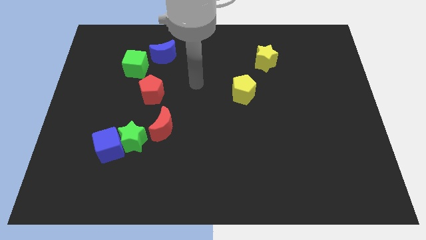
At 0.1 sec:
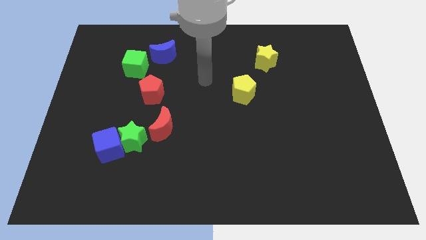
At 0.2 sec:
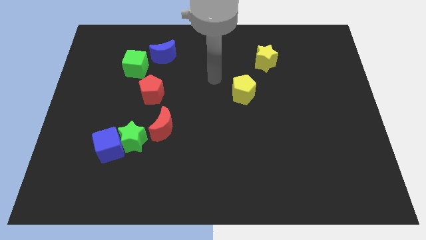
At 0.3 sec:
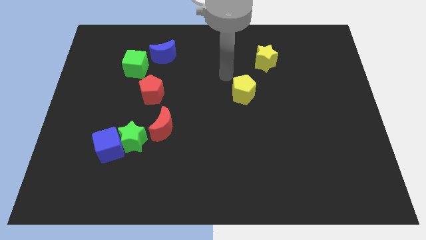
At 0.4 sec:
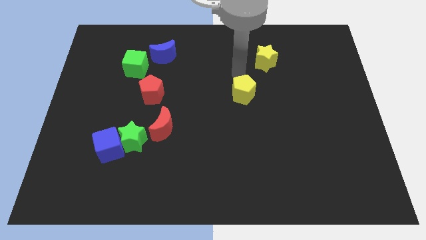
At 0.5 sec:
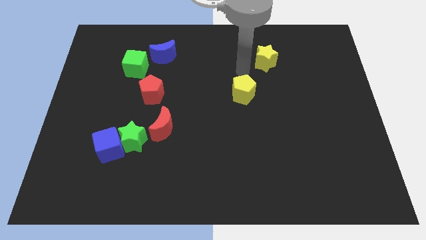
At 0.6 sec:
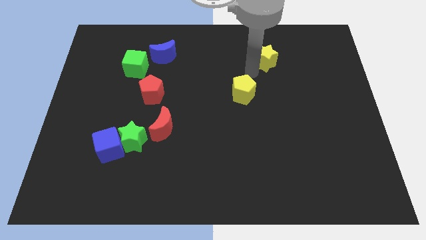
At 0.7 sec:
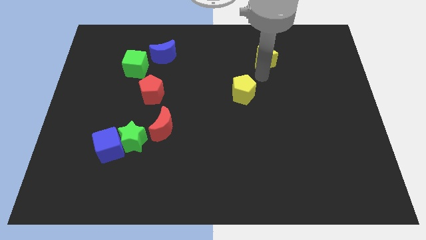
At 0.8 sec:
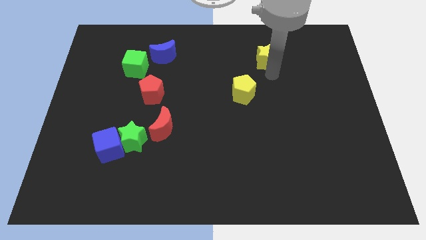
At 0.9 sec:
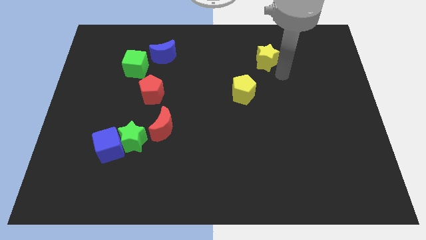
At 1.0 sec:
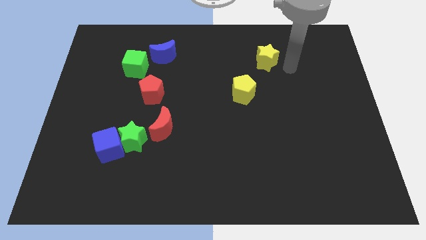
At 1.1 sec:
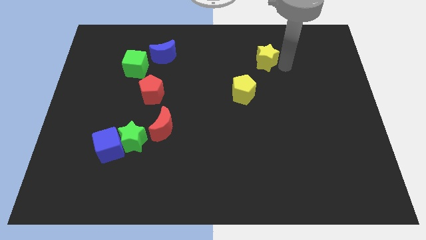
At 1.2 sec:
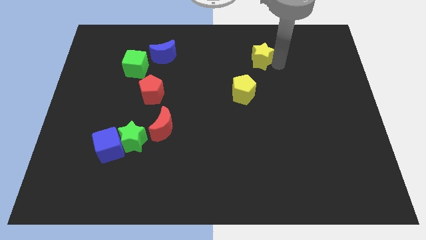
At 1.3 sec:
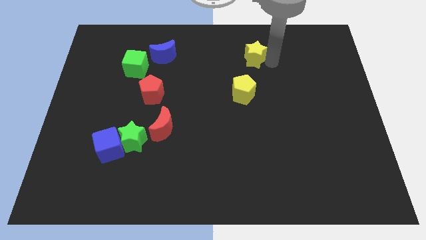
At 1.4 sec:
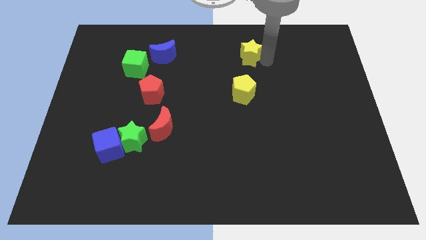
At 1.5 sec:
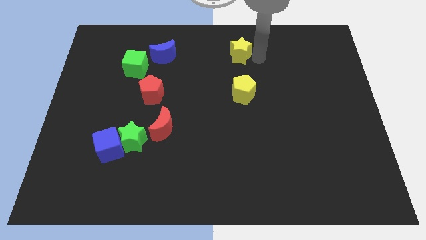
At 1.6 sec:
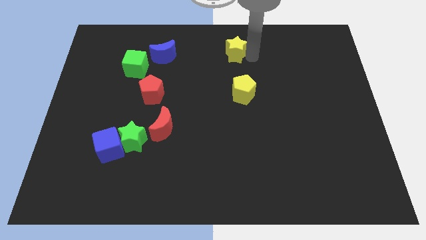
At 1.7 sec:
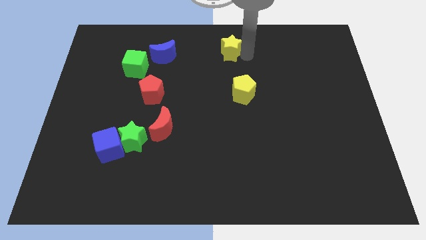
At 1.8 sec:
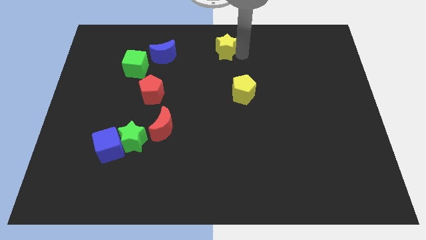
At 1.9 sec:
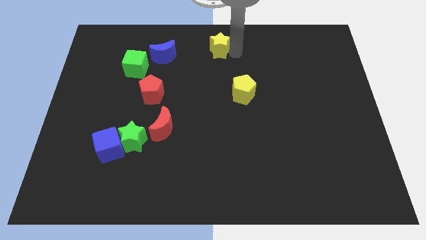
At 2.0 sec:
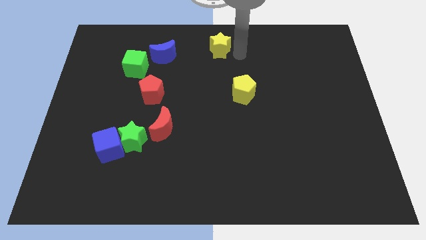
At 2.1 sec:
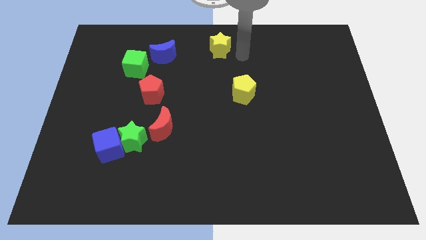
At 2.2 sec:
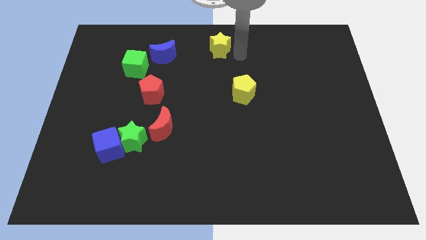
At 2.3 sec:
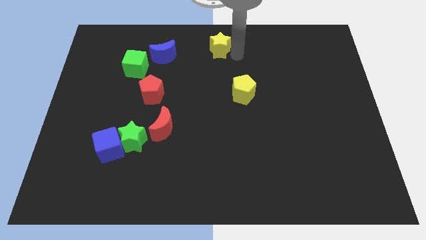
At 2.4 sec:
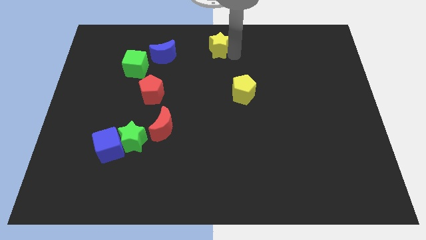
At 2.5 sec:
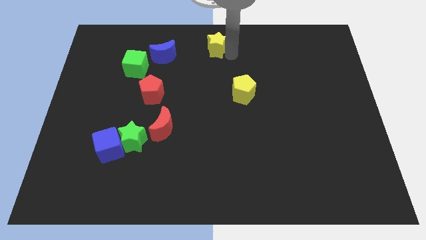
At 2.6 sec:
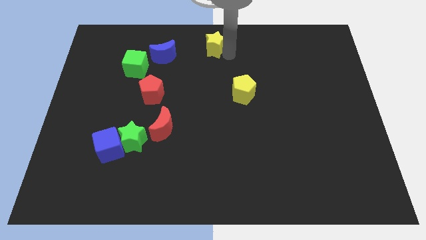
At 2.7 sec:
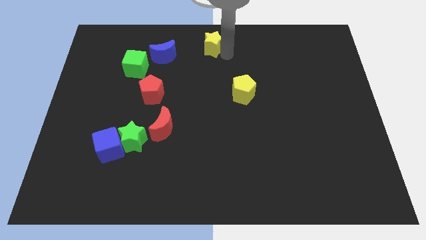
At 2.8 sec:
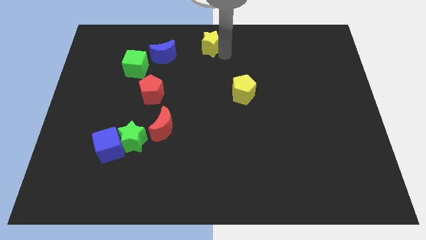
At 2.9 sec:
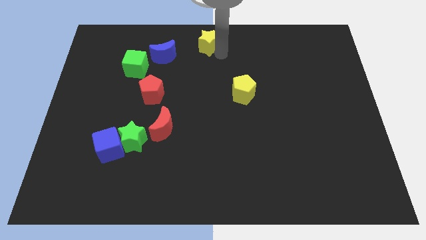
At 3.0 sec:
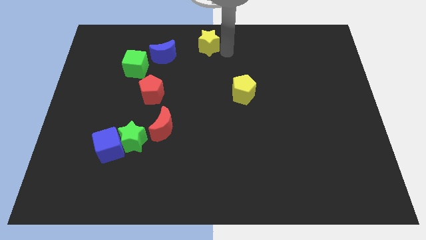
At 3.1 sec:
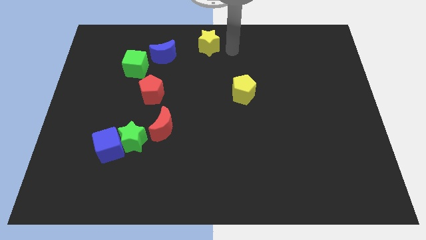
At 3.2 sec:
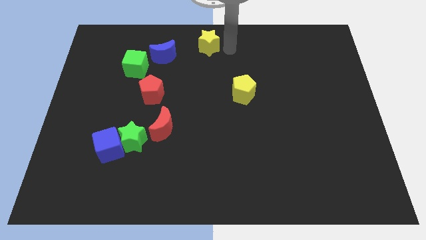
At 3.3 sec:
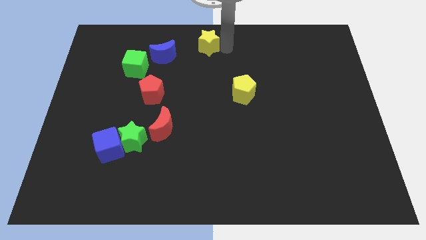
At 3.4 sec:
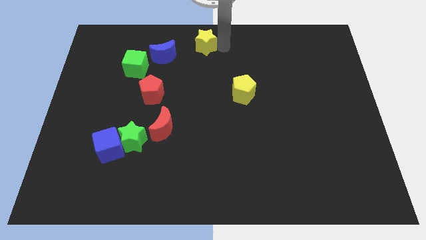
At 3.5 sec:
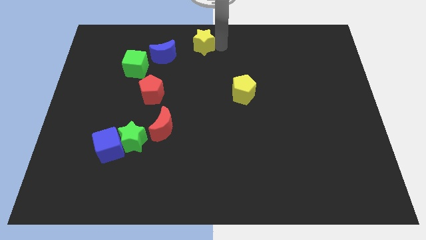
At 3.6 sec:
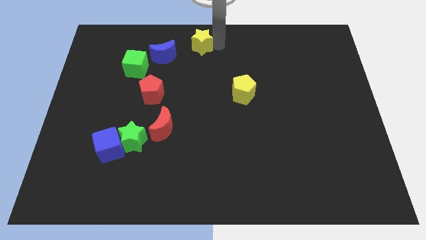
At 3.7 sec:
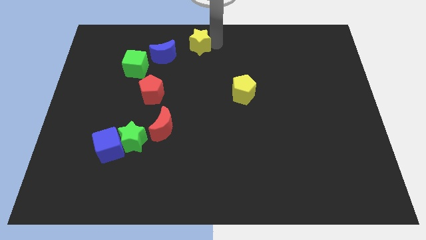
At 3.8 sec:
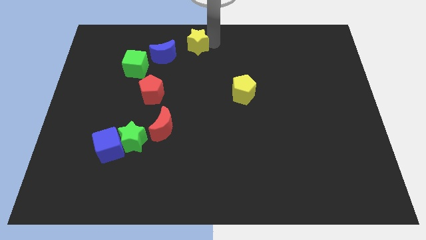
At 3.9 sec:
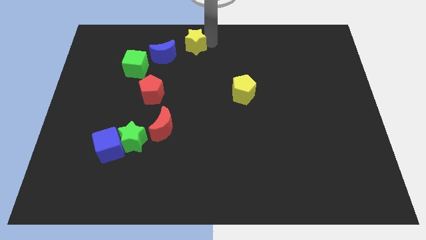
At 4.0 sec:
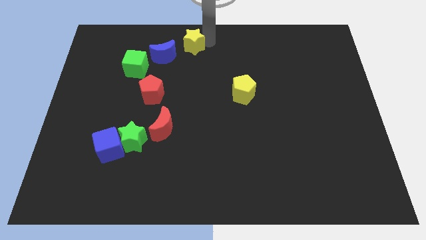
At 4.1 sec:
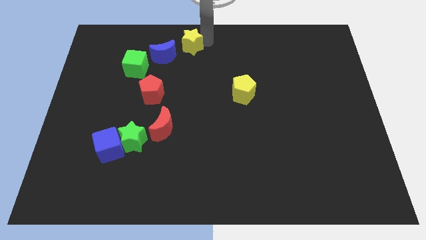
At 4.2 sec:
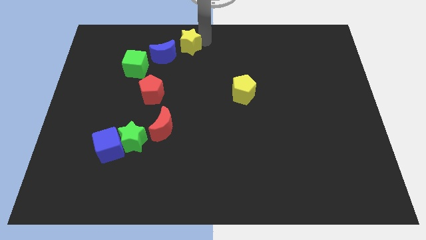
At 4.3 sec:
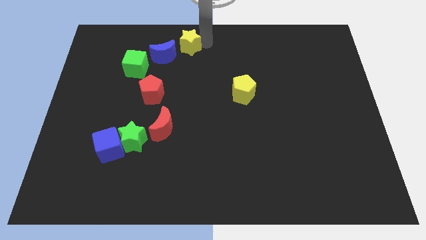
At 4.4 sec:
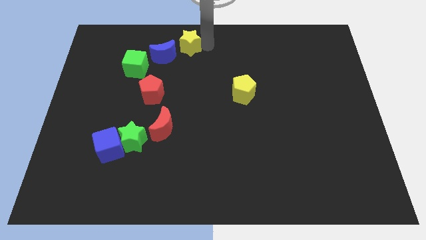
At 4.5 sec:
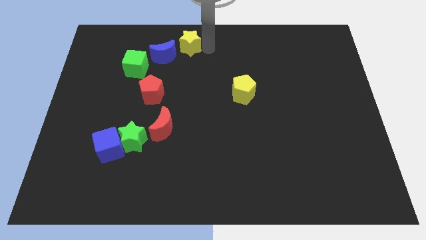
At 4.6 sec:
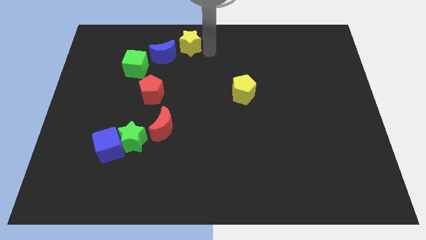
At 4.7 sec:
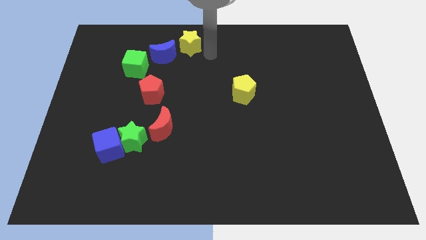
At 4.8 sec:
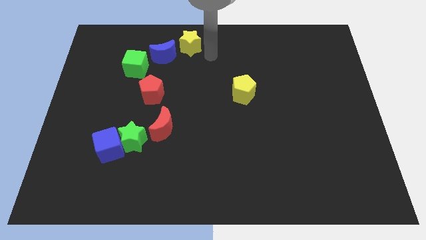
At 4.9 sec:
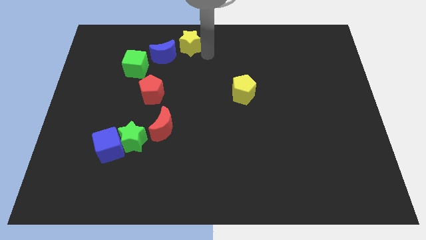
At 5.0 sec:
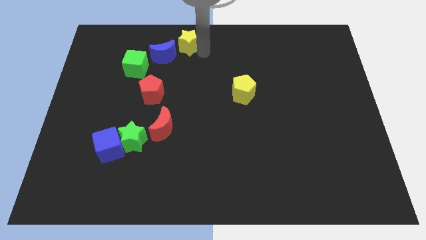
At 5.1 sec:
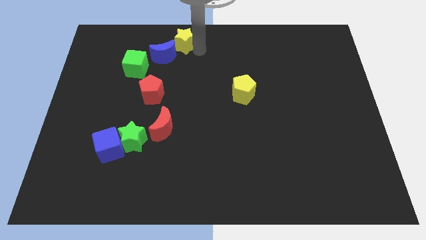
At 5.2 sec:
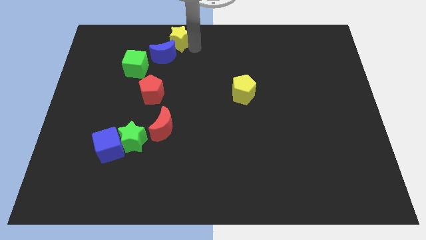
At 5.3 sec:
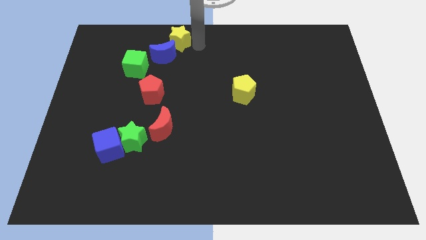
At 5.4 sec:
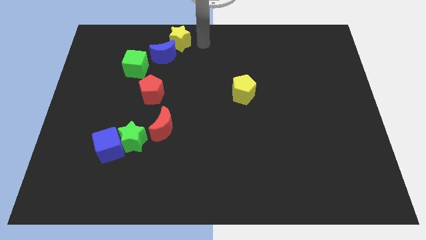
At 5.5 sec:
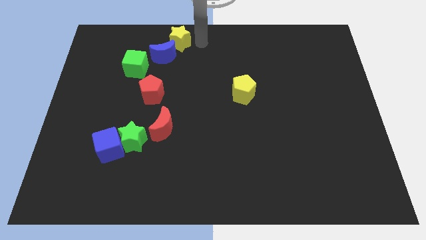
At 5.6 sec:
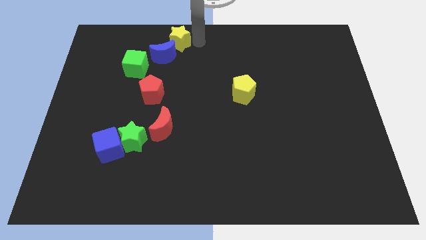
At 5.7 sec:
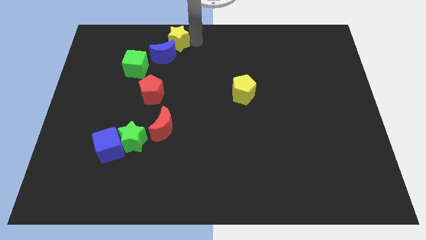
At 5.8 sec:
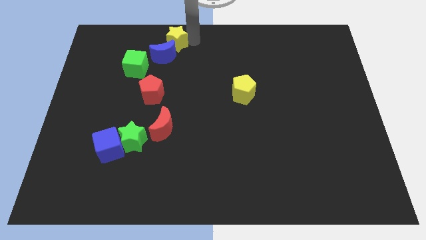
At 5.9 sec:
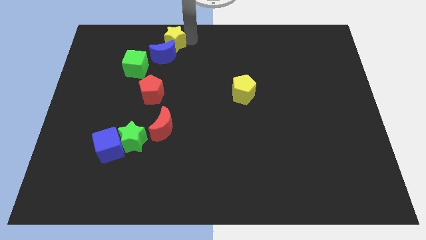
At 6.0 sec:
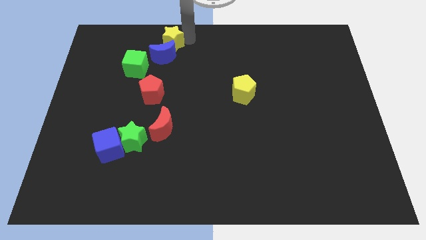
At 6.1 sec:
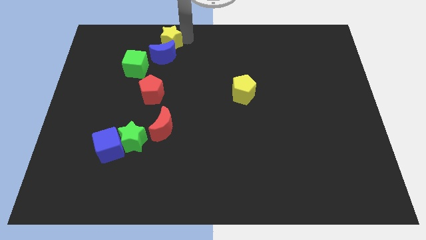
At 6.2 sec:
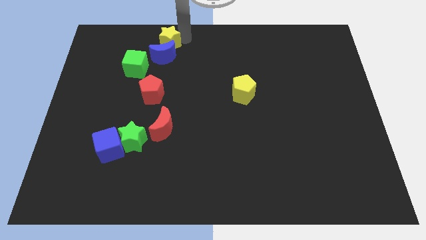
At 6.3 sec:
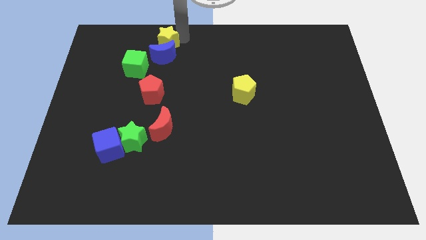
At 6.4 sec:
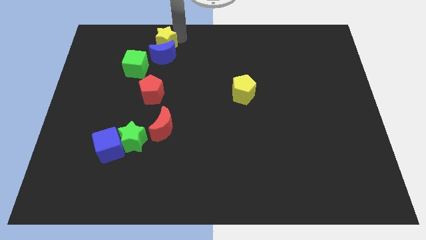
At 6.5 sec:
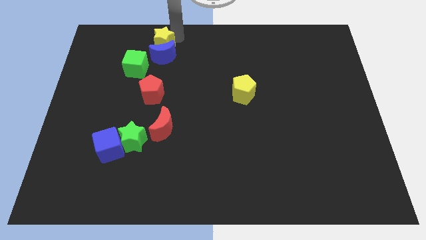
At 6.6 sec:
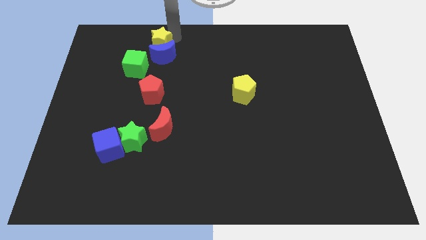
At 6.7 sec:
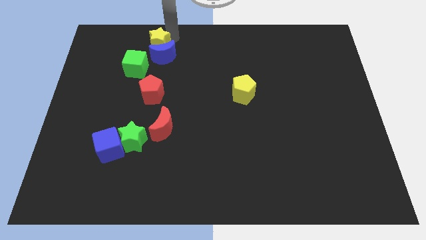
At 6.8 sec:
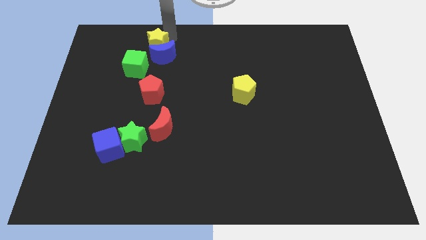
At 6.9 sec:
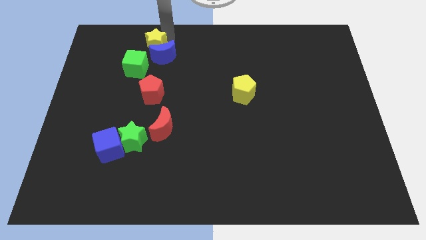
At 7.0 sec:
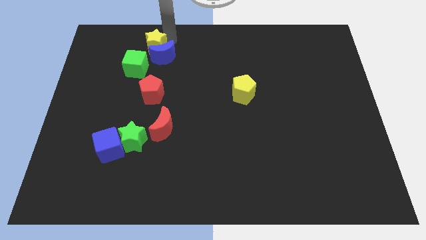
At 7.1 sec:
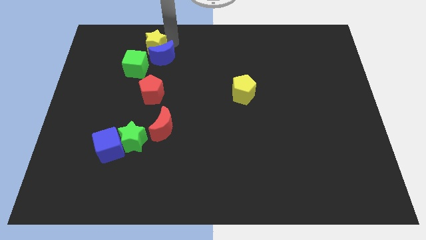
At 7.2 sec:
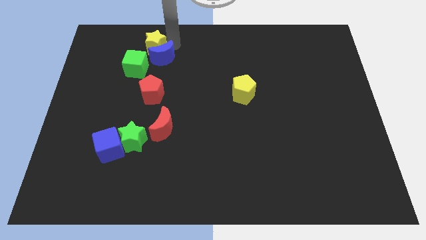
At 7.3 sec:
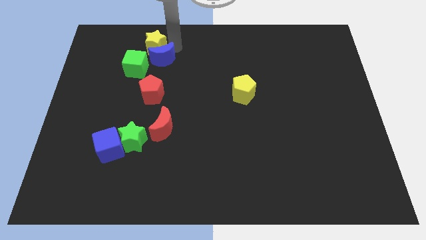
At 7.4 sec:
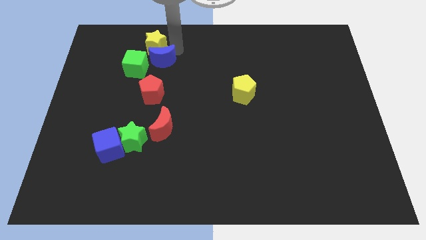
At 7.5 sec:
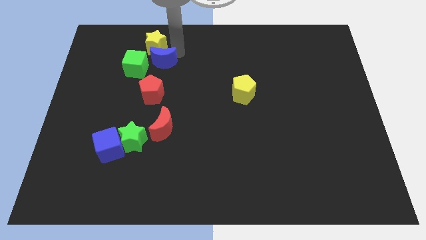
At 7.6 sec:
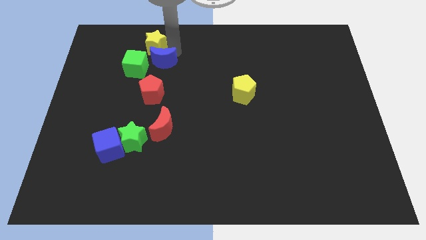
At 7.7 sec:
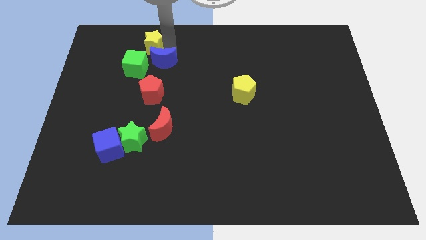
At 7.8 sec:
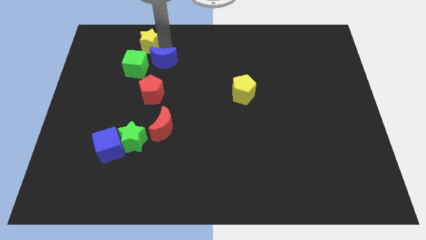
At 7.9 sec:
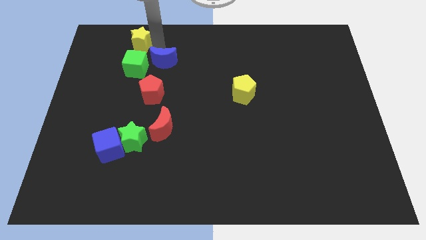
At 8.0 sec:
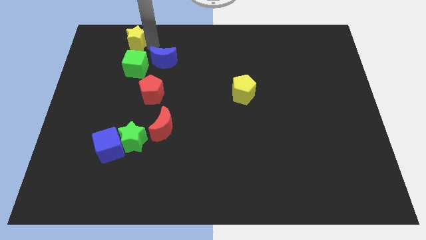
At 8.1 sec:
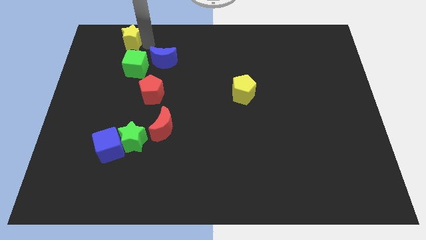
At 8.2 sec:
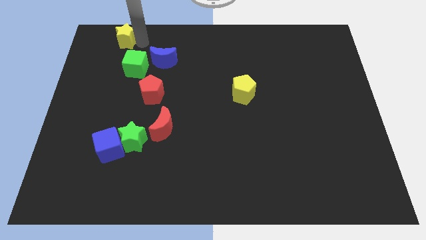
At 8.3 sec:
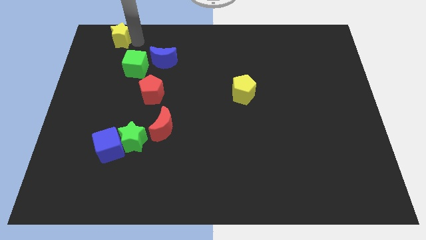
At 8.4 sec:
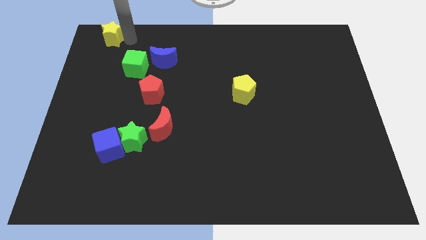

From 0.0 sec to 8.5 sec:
put the yellow star to the top left corner
